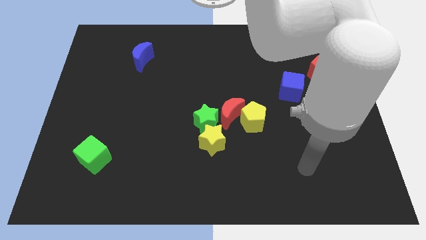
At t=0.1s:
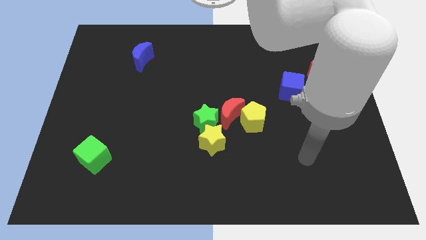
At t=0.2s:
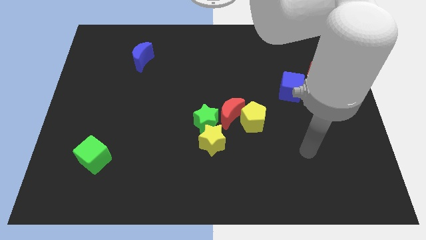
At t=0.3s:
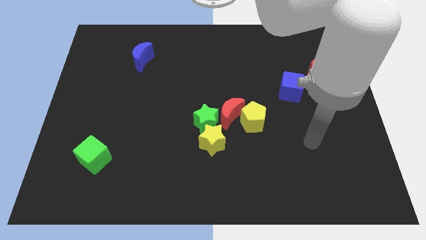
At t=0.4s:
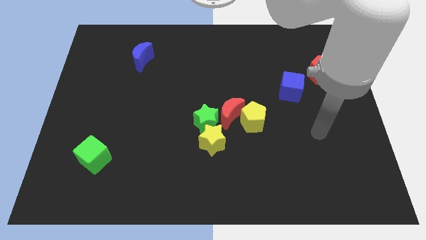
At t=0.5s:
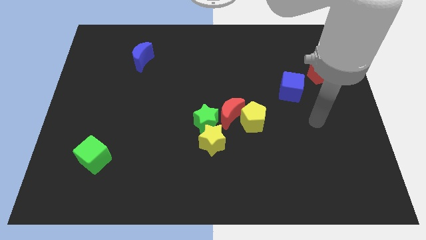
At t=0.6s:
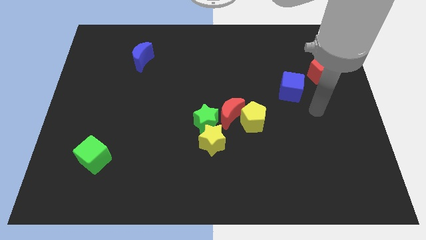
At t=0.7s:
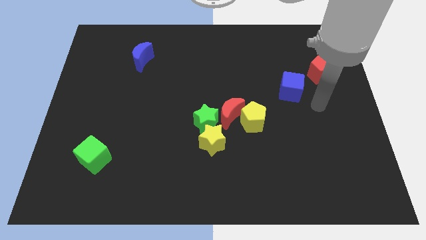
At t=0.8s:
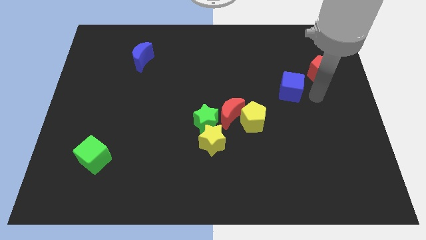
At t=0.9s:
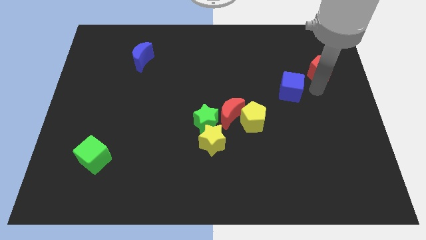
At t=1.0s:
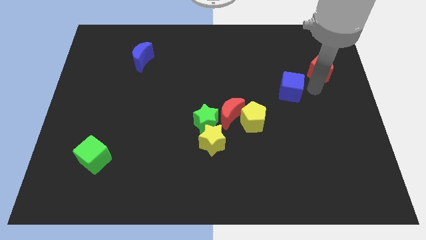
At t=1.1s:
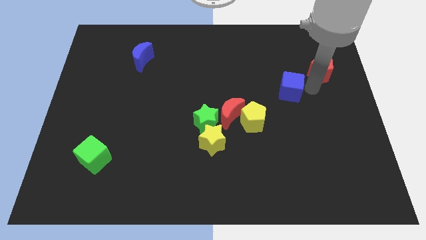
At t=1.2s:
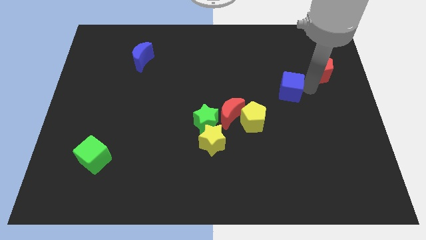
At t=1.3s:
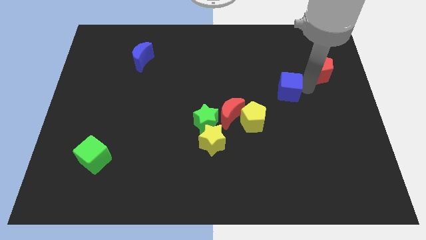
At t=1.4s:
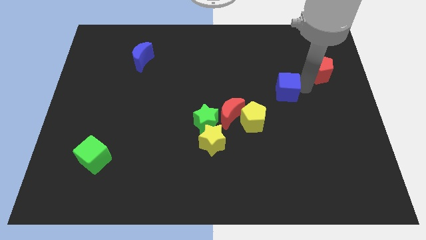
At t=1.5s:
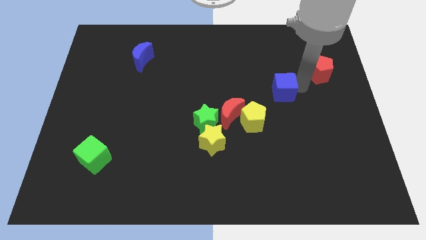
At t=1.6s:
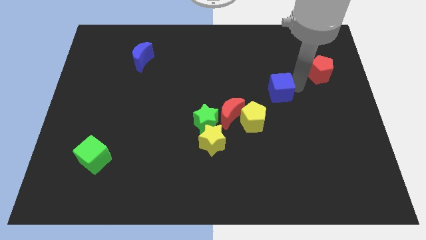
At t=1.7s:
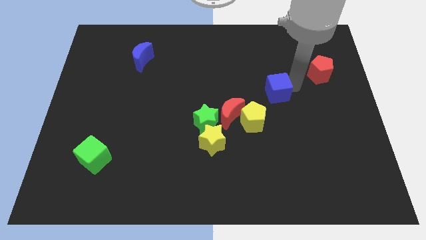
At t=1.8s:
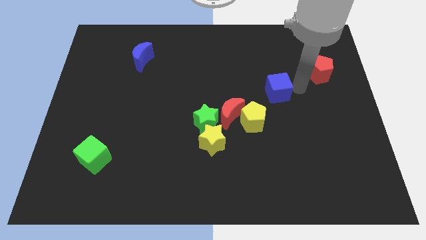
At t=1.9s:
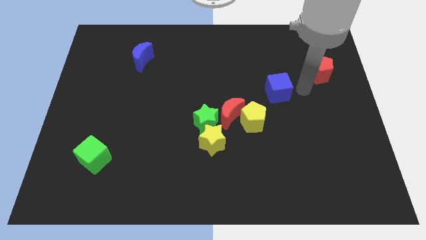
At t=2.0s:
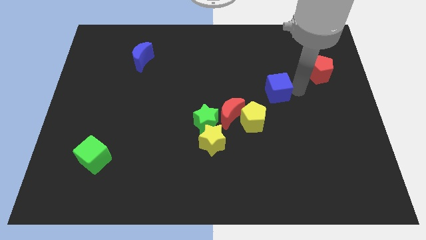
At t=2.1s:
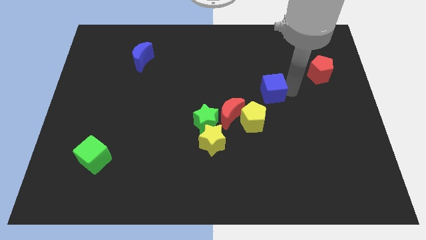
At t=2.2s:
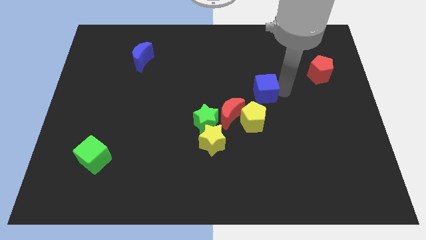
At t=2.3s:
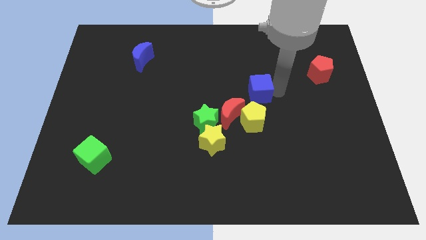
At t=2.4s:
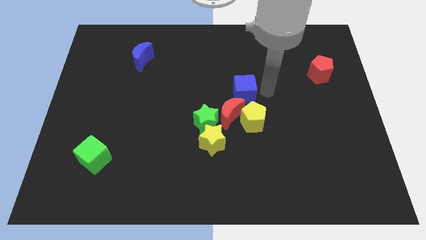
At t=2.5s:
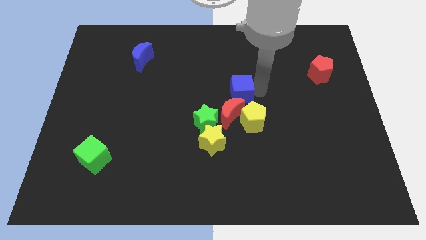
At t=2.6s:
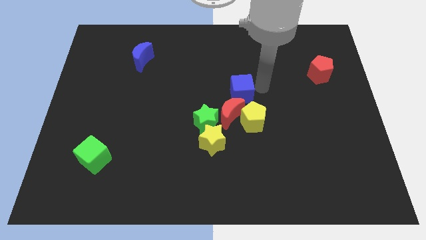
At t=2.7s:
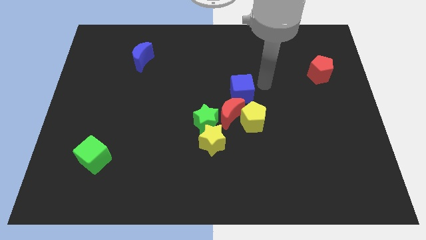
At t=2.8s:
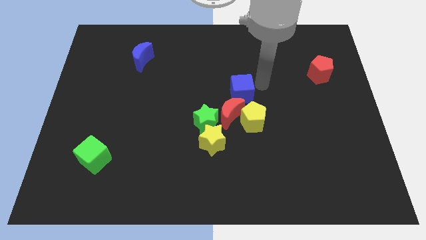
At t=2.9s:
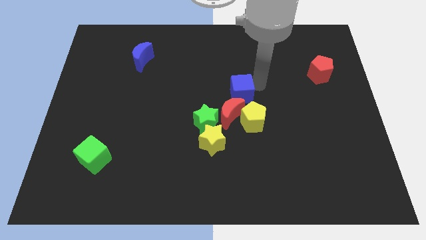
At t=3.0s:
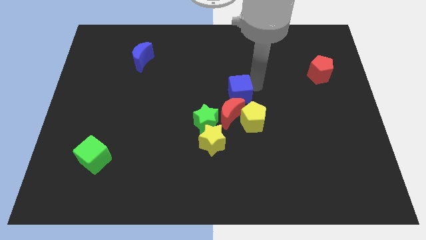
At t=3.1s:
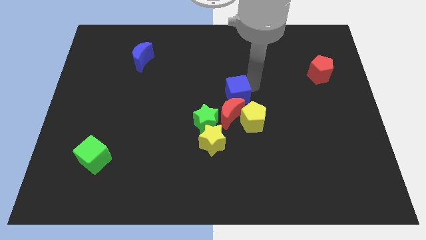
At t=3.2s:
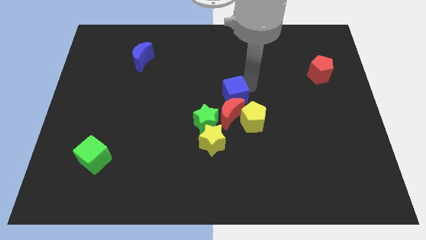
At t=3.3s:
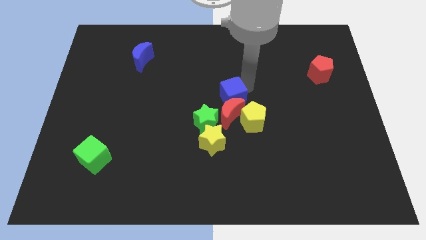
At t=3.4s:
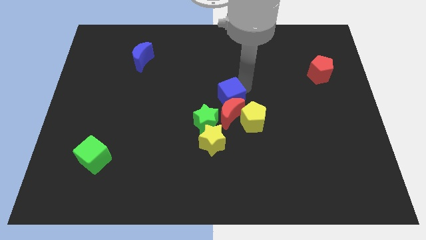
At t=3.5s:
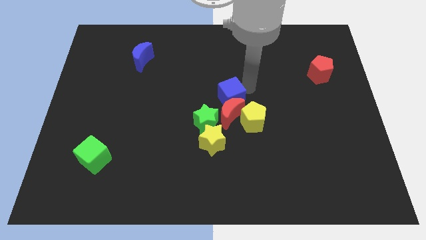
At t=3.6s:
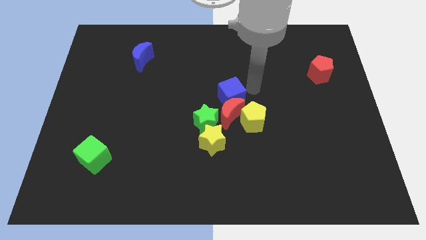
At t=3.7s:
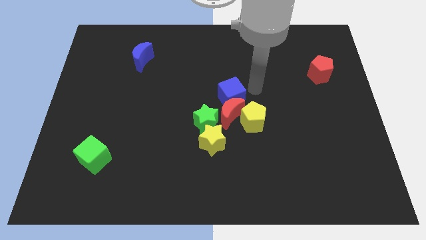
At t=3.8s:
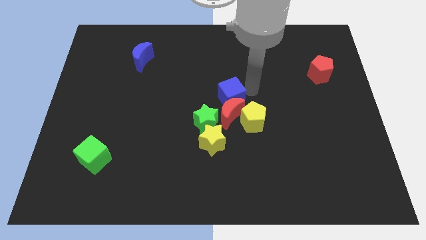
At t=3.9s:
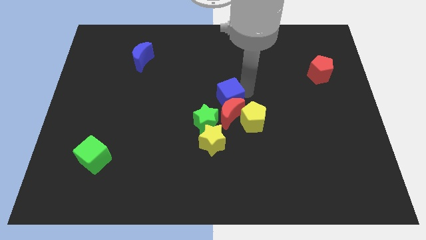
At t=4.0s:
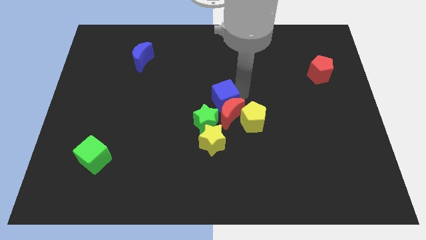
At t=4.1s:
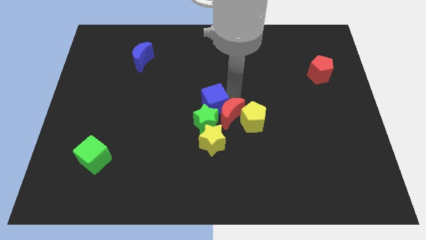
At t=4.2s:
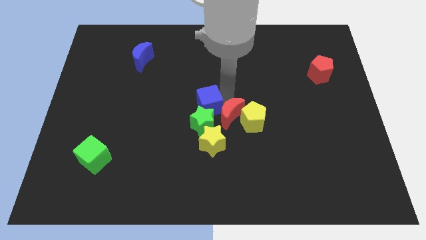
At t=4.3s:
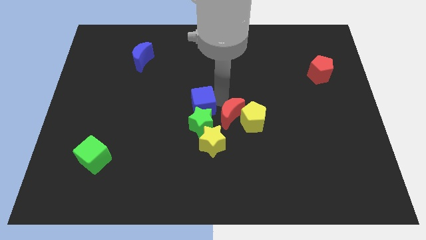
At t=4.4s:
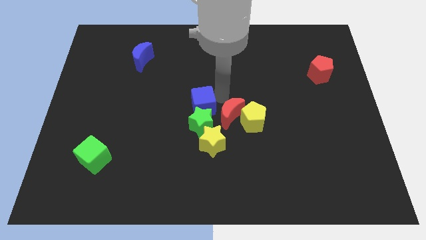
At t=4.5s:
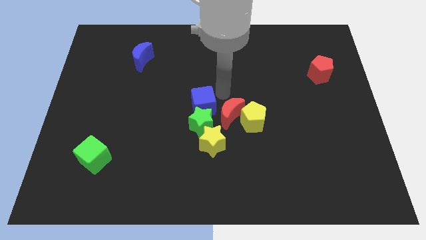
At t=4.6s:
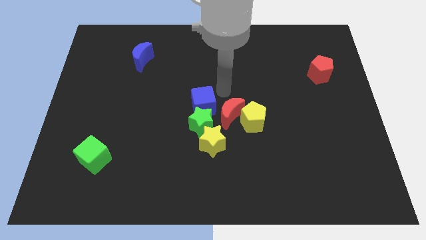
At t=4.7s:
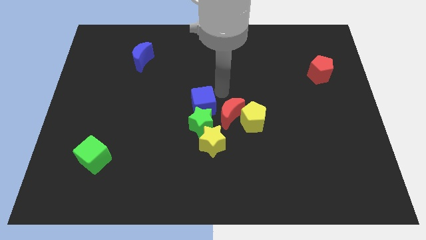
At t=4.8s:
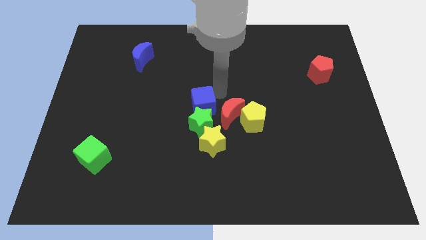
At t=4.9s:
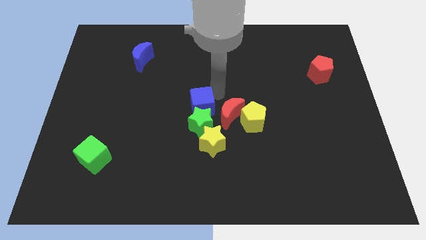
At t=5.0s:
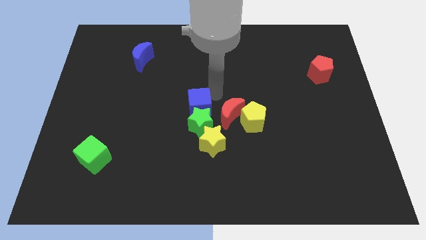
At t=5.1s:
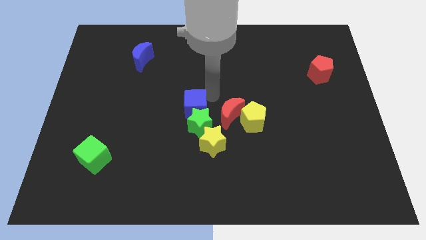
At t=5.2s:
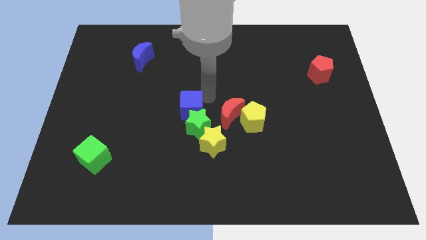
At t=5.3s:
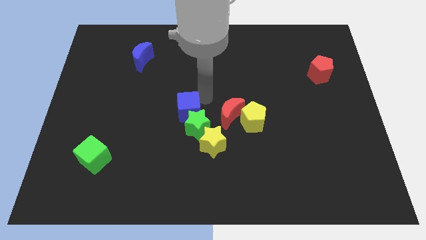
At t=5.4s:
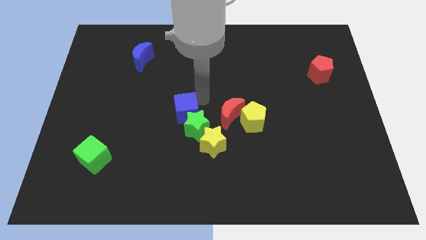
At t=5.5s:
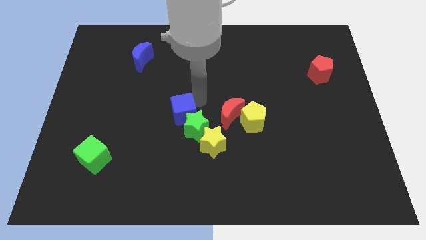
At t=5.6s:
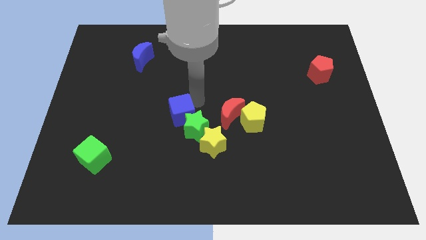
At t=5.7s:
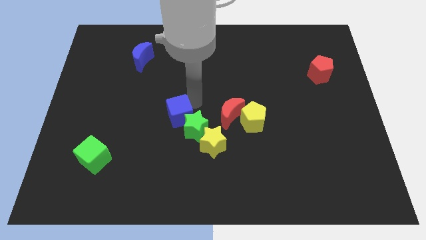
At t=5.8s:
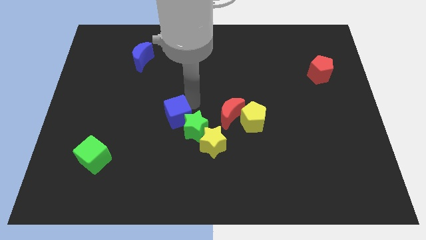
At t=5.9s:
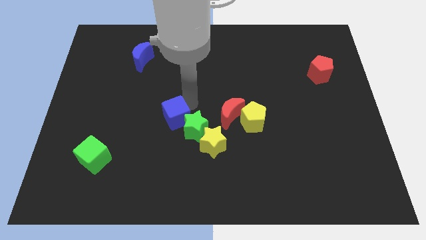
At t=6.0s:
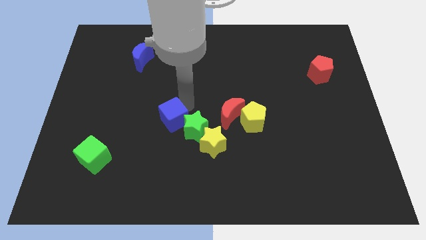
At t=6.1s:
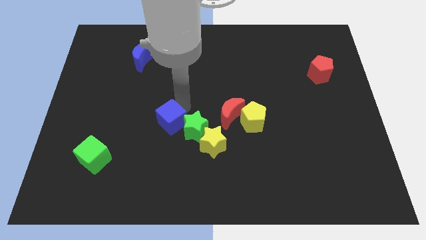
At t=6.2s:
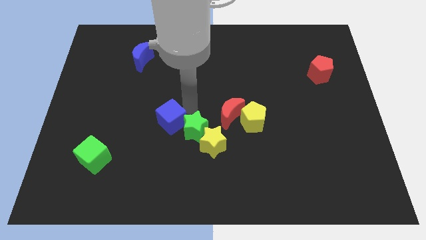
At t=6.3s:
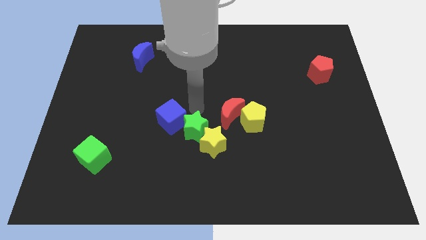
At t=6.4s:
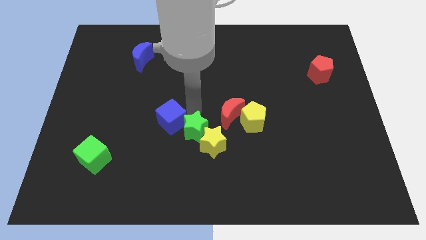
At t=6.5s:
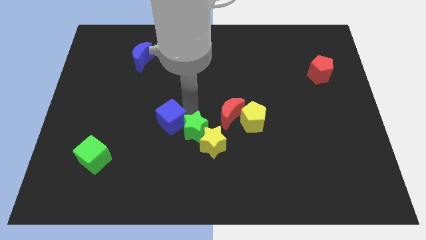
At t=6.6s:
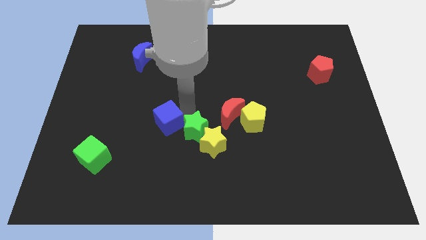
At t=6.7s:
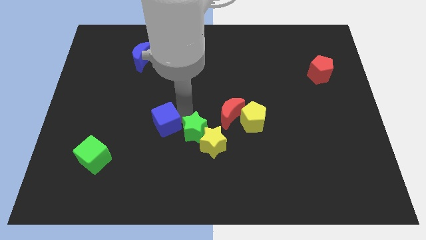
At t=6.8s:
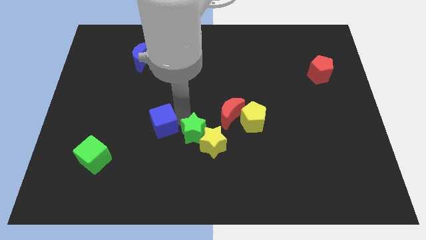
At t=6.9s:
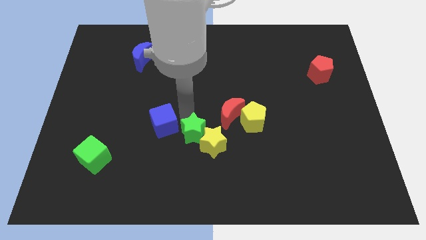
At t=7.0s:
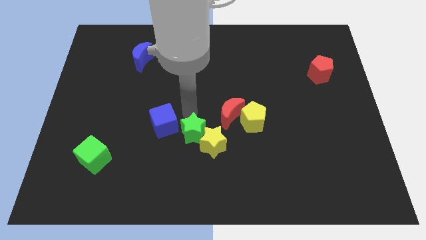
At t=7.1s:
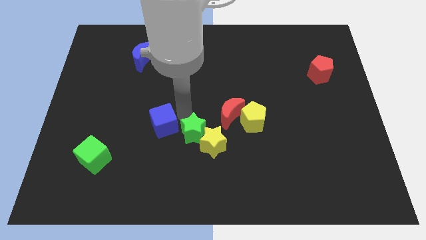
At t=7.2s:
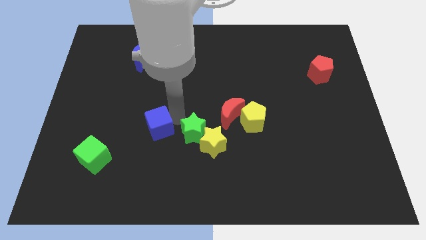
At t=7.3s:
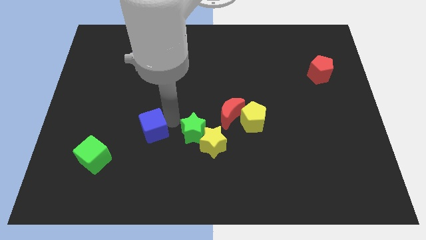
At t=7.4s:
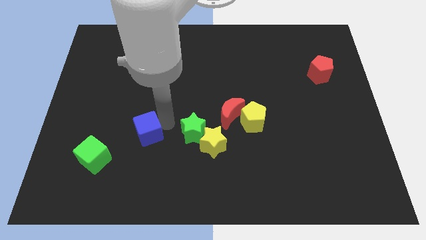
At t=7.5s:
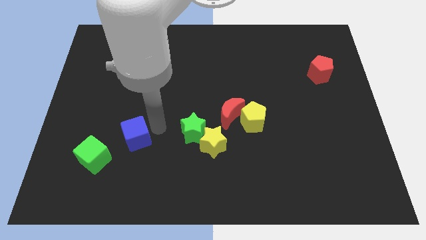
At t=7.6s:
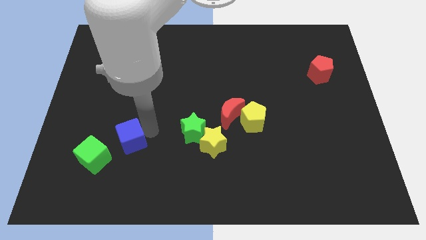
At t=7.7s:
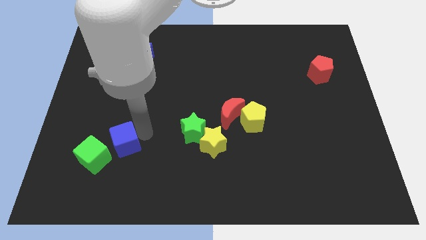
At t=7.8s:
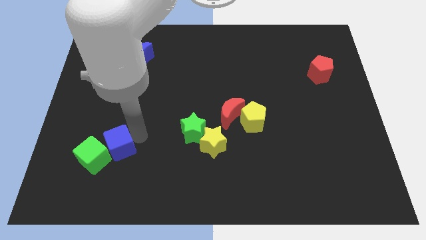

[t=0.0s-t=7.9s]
push the blue cube next to the green cube
